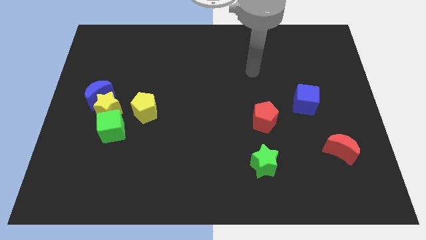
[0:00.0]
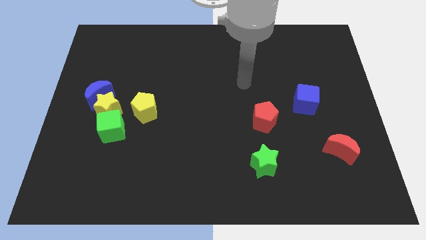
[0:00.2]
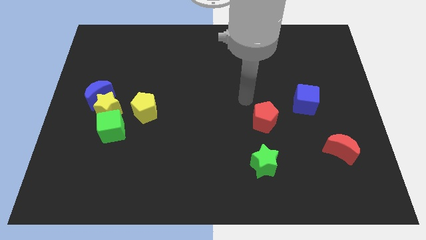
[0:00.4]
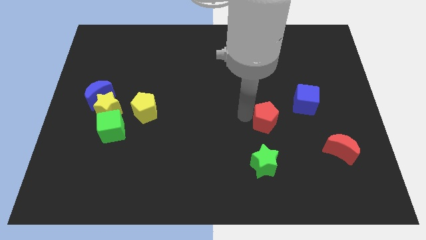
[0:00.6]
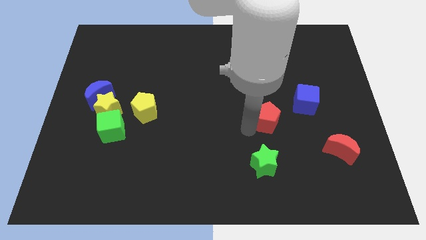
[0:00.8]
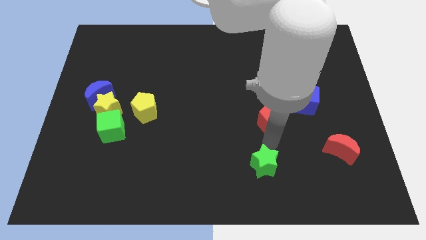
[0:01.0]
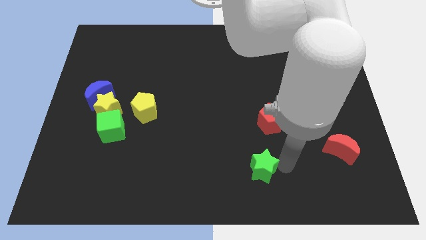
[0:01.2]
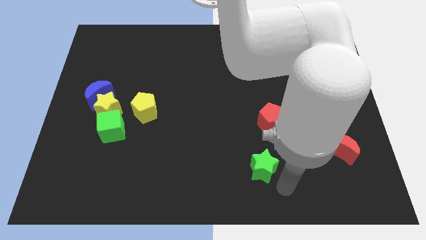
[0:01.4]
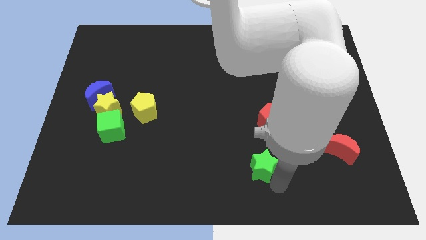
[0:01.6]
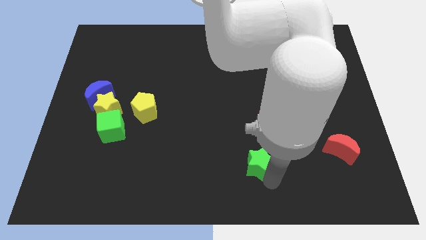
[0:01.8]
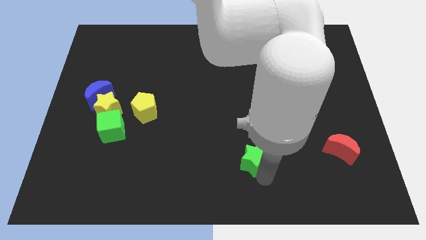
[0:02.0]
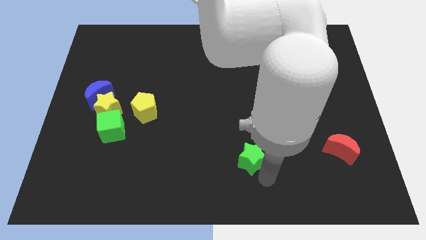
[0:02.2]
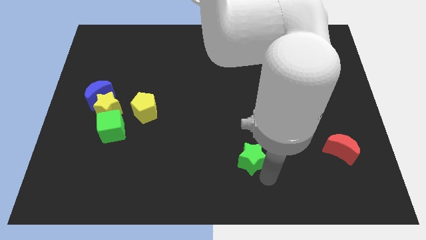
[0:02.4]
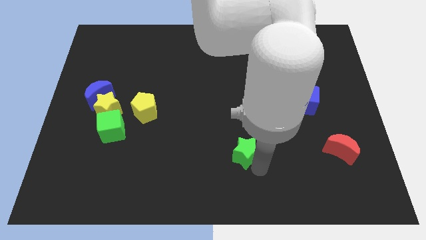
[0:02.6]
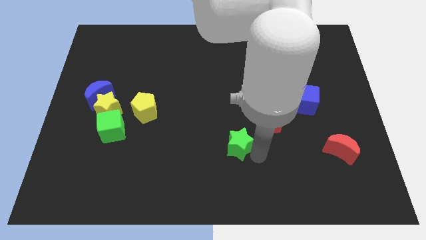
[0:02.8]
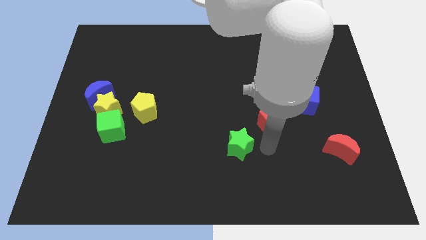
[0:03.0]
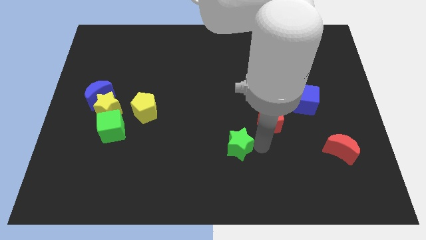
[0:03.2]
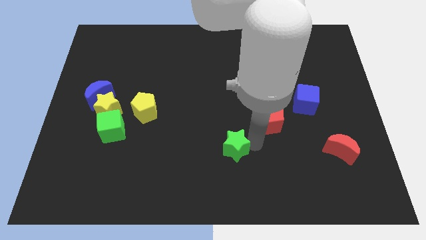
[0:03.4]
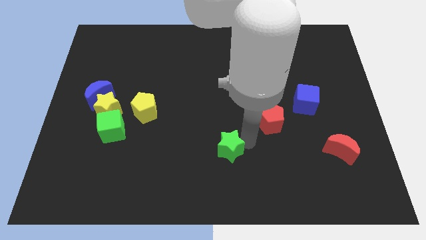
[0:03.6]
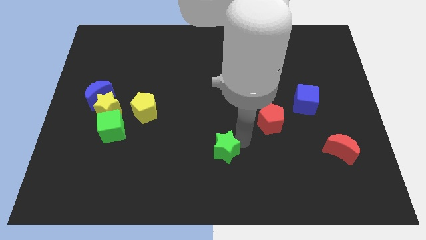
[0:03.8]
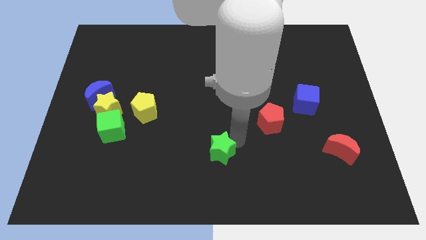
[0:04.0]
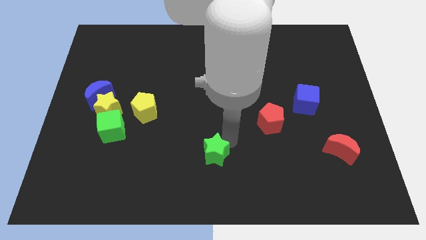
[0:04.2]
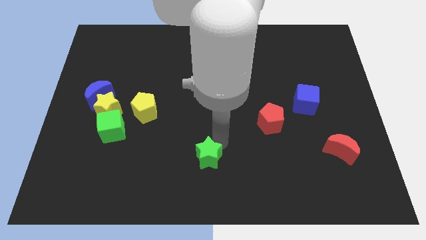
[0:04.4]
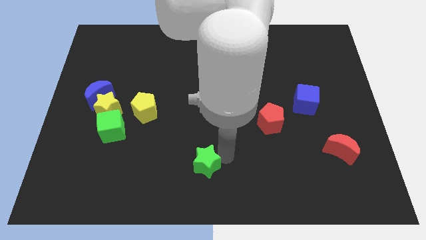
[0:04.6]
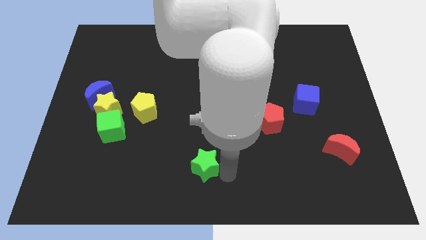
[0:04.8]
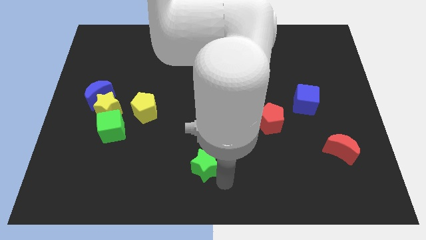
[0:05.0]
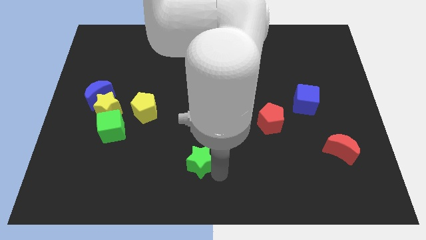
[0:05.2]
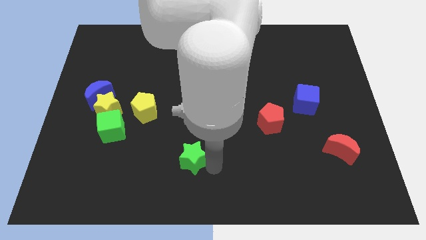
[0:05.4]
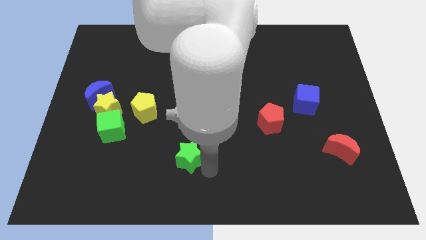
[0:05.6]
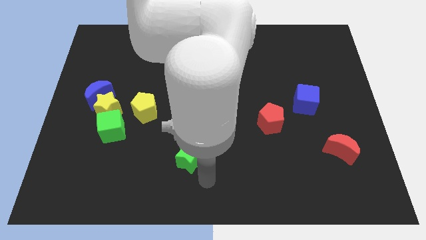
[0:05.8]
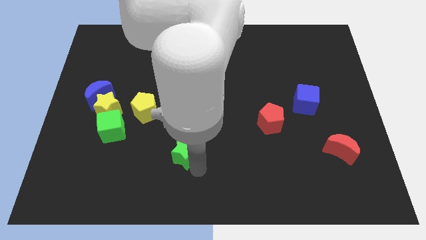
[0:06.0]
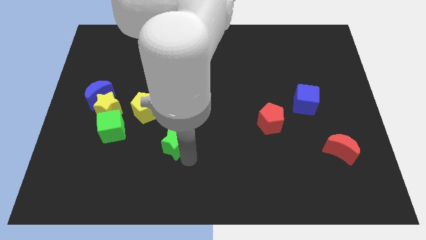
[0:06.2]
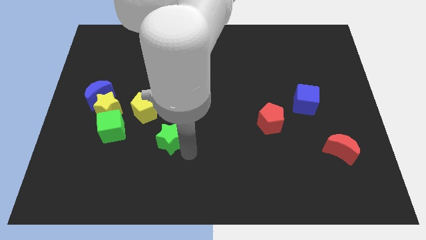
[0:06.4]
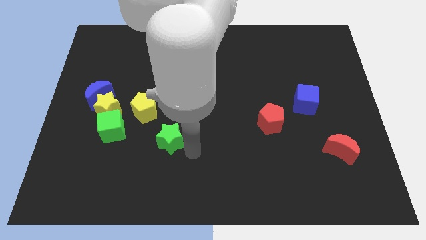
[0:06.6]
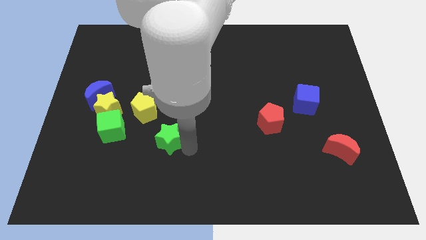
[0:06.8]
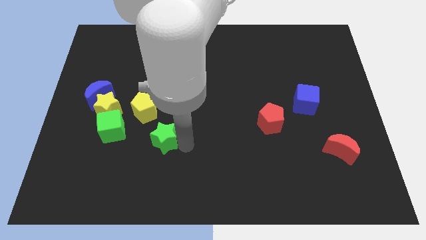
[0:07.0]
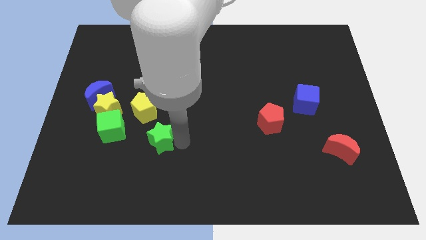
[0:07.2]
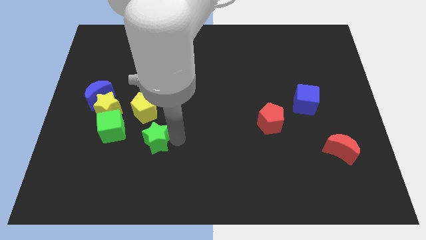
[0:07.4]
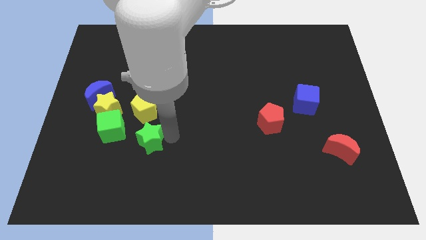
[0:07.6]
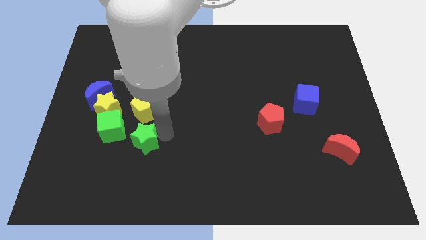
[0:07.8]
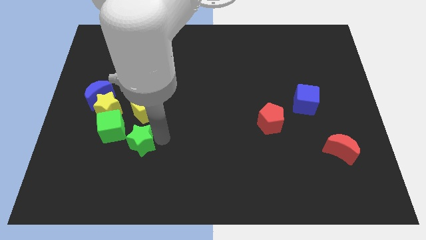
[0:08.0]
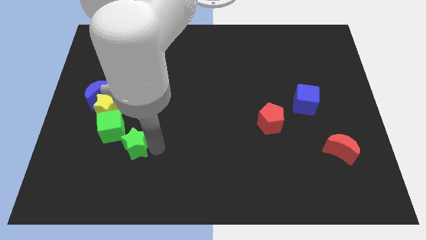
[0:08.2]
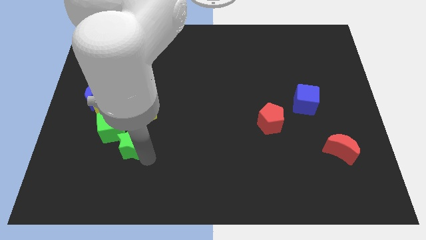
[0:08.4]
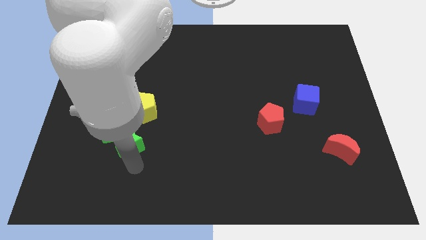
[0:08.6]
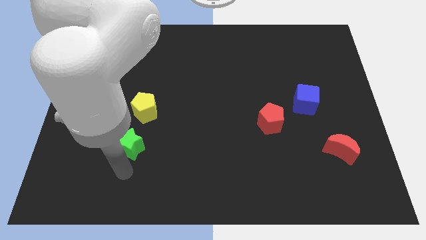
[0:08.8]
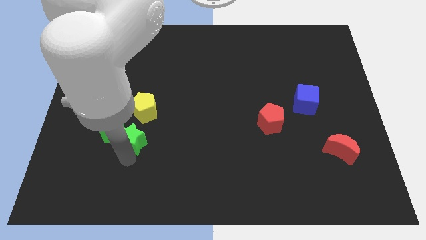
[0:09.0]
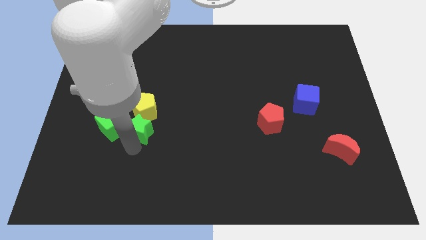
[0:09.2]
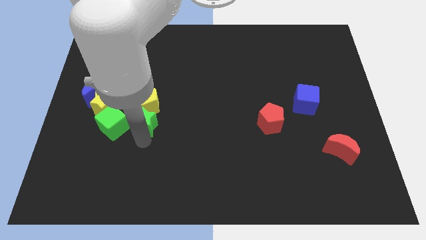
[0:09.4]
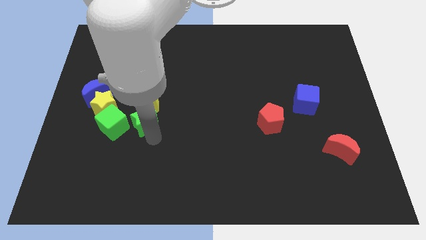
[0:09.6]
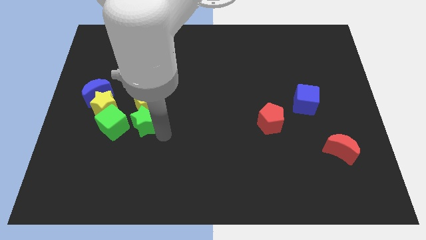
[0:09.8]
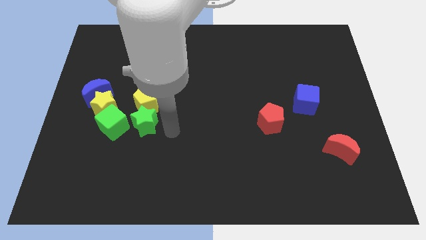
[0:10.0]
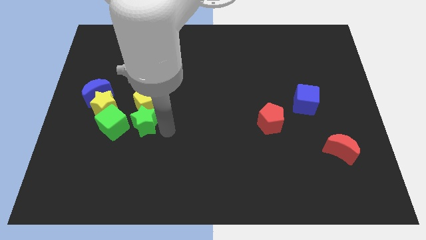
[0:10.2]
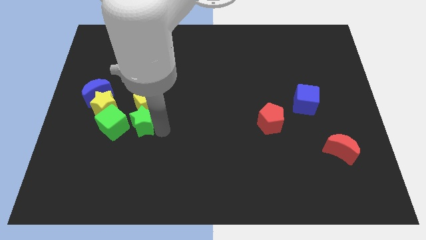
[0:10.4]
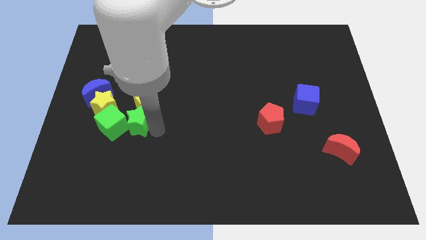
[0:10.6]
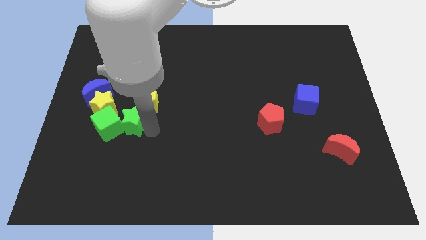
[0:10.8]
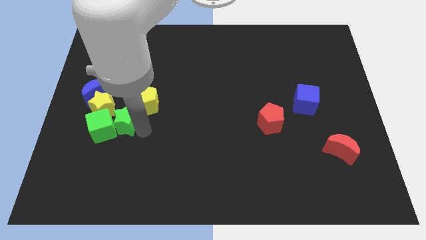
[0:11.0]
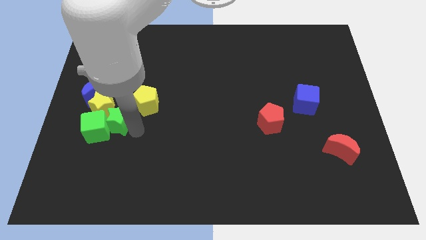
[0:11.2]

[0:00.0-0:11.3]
put the green star towards the yellow star

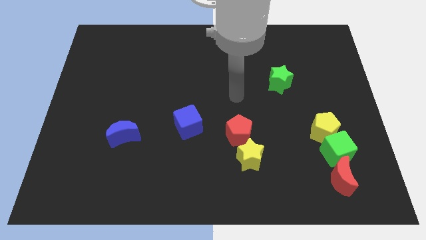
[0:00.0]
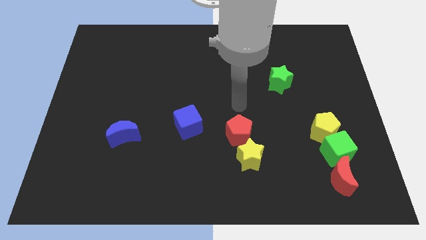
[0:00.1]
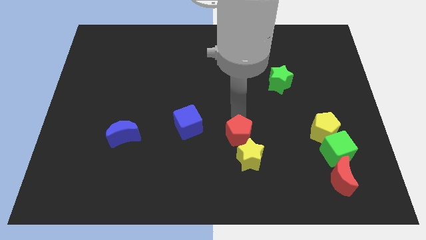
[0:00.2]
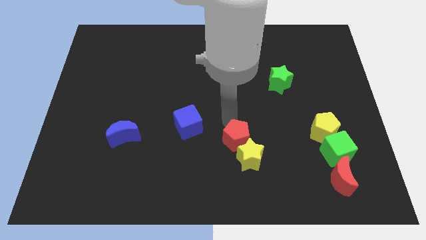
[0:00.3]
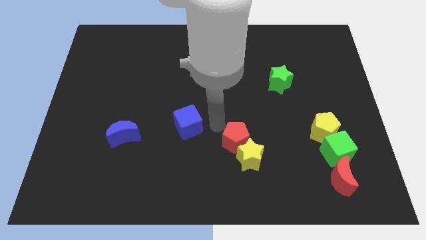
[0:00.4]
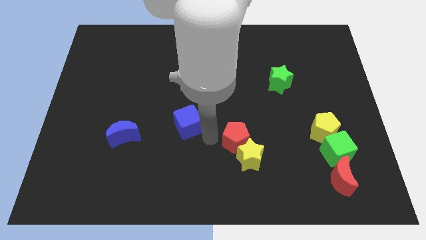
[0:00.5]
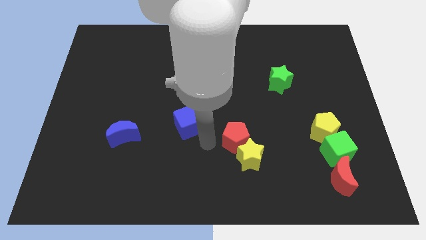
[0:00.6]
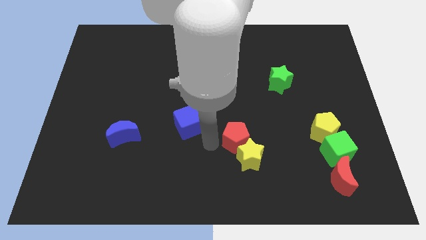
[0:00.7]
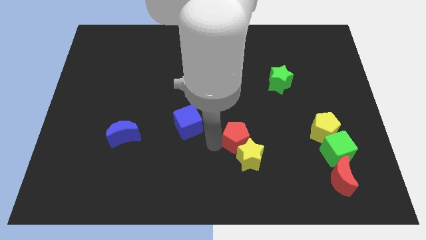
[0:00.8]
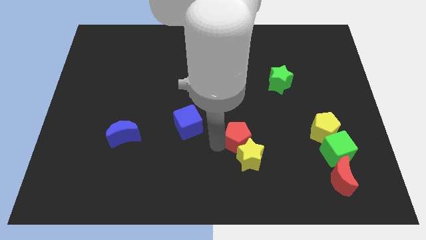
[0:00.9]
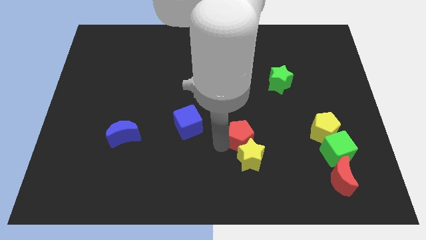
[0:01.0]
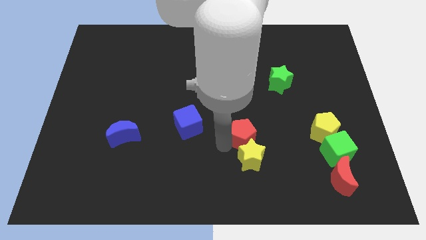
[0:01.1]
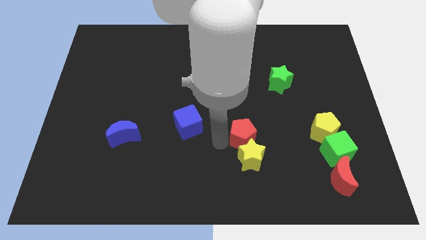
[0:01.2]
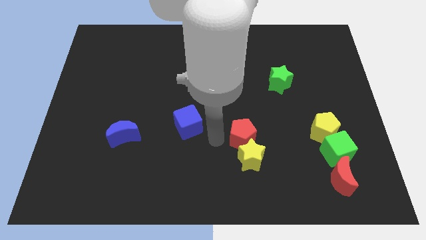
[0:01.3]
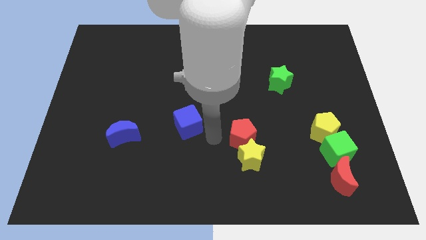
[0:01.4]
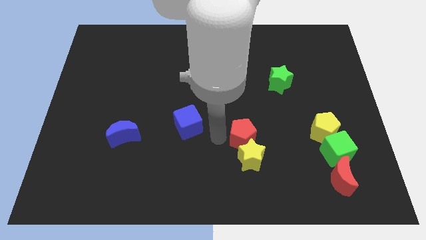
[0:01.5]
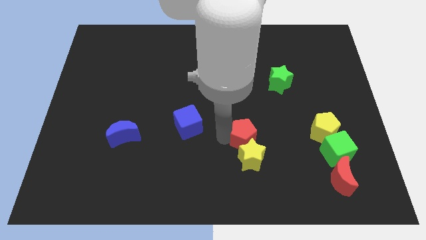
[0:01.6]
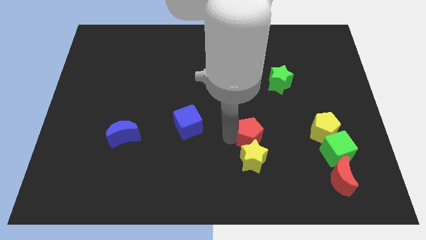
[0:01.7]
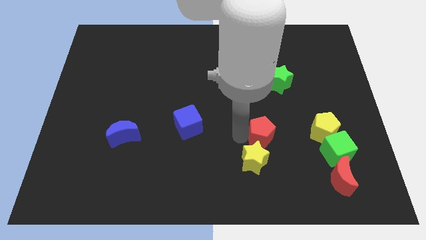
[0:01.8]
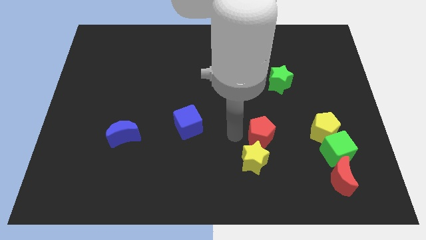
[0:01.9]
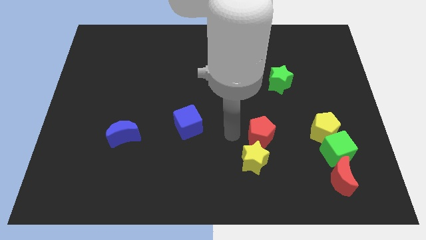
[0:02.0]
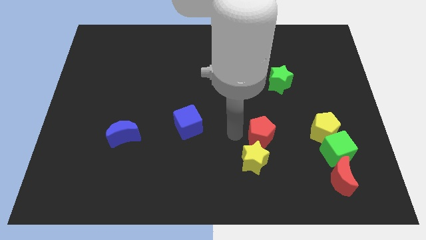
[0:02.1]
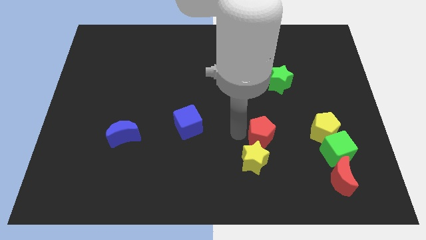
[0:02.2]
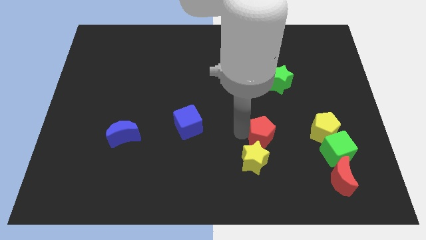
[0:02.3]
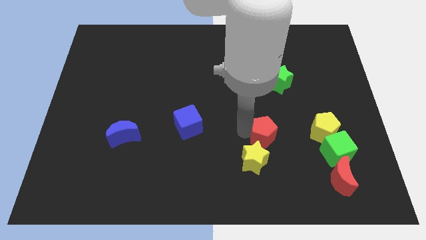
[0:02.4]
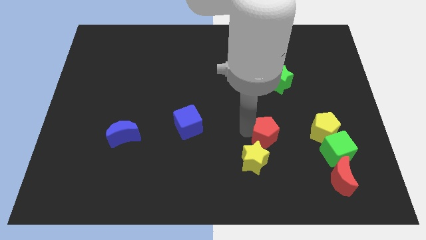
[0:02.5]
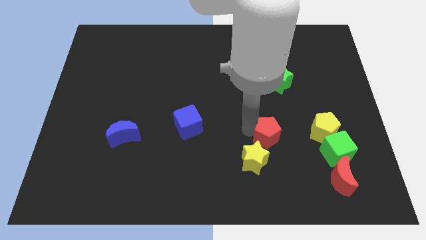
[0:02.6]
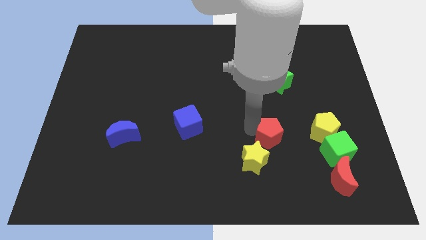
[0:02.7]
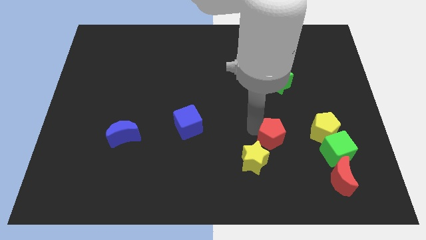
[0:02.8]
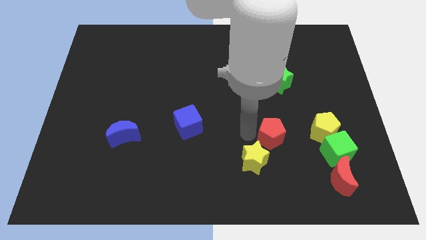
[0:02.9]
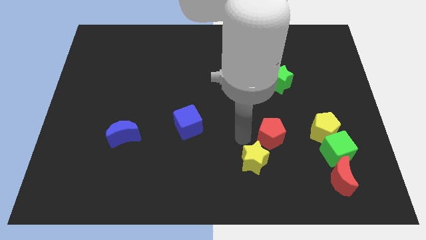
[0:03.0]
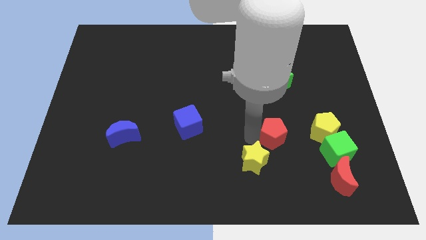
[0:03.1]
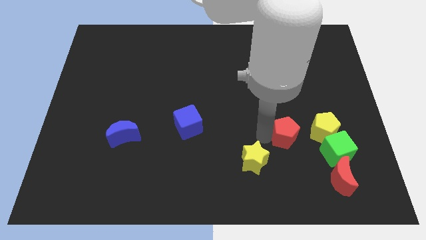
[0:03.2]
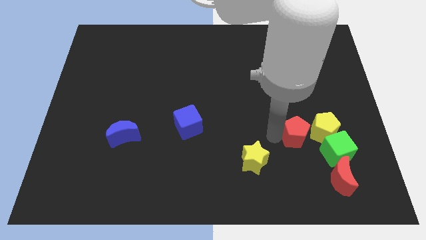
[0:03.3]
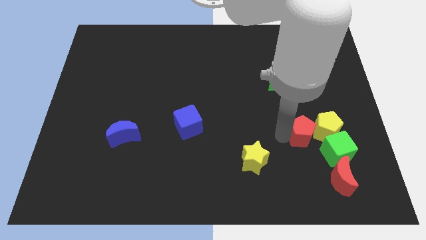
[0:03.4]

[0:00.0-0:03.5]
push the red pentagon towards the yellow pentagon
